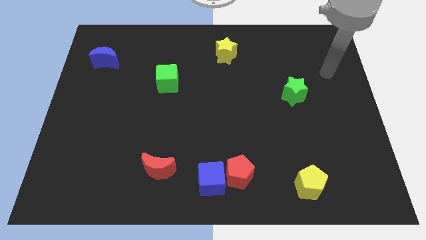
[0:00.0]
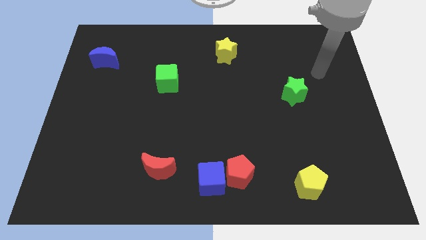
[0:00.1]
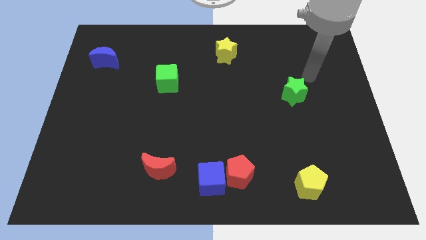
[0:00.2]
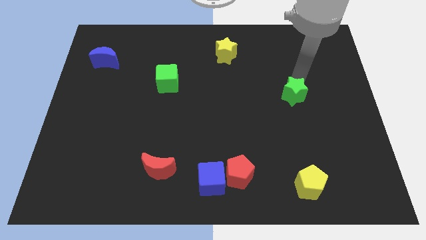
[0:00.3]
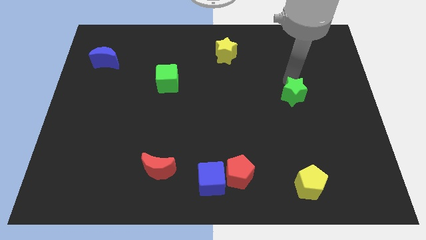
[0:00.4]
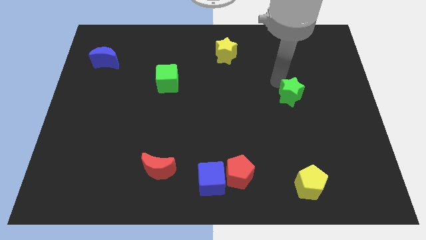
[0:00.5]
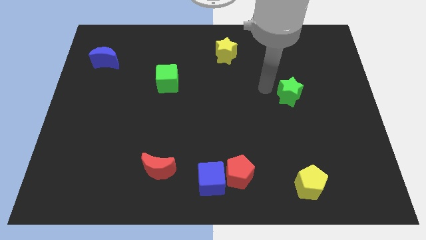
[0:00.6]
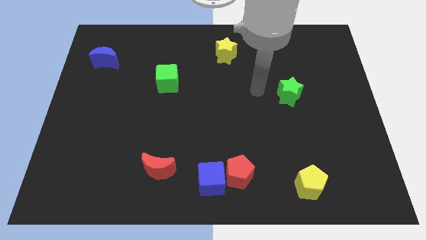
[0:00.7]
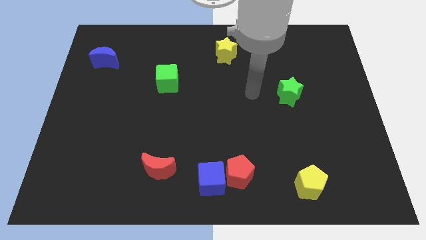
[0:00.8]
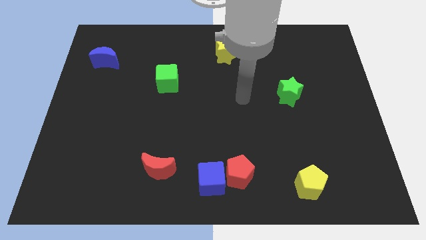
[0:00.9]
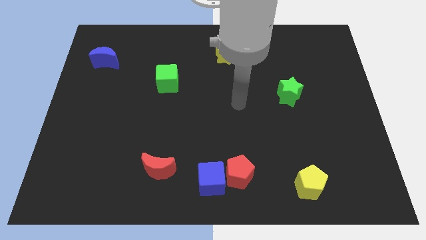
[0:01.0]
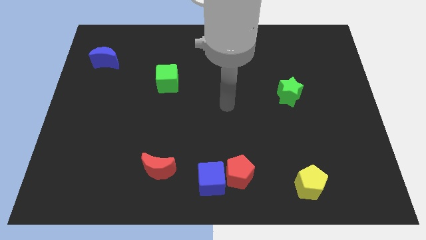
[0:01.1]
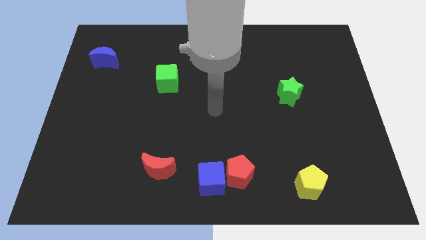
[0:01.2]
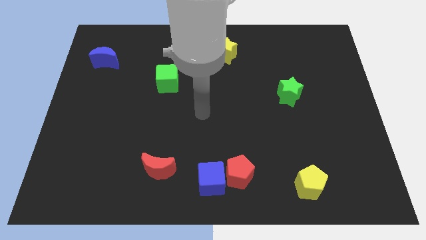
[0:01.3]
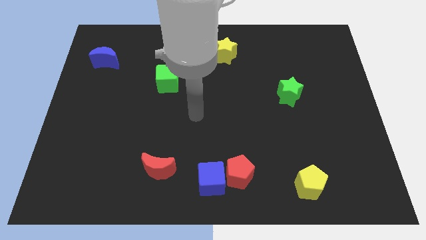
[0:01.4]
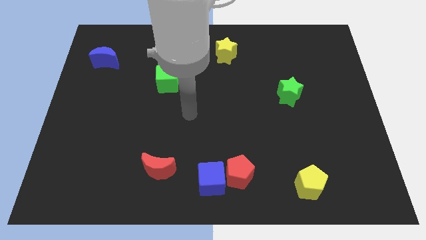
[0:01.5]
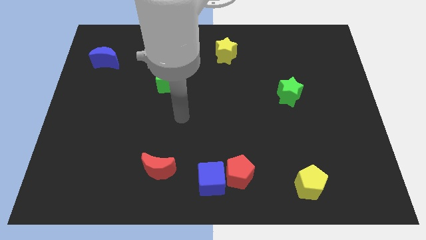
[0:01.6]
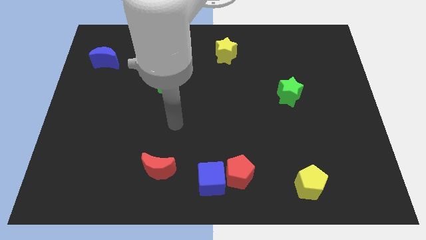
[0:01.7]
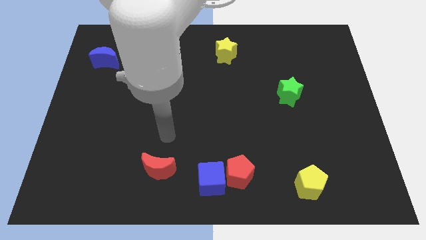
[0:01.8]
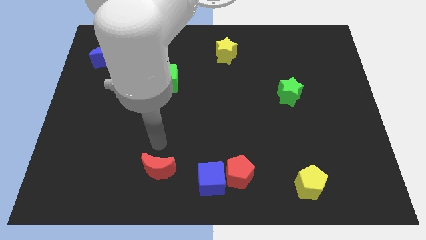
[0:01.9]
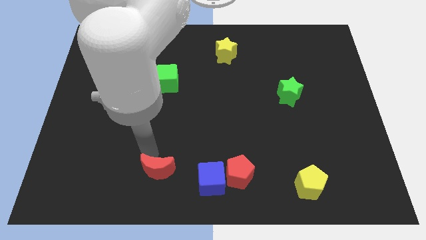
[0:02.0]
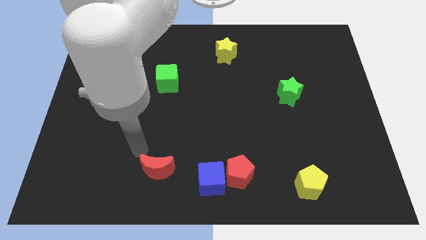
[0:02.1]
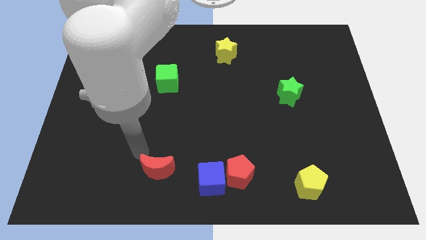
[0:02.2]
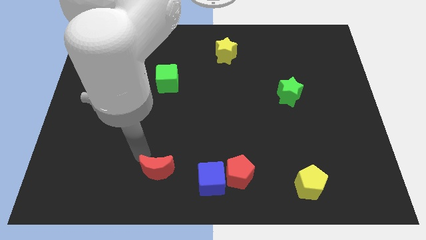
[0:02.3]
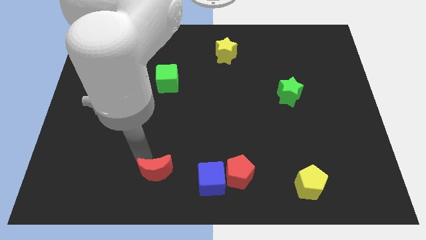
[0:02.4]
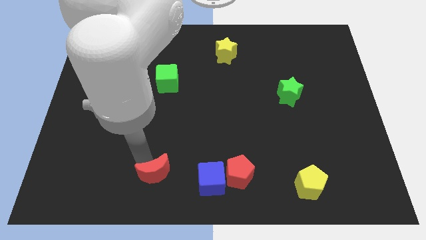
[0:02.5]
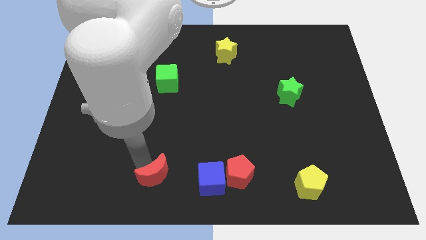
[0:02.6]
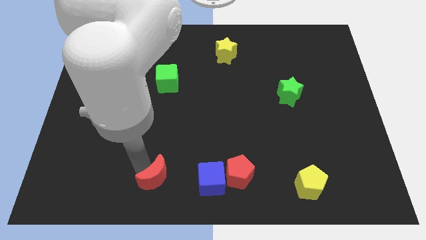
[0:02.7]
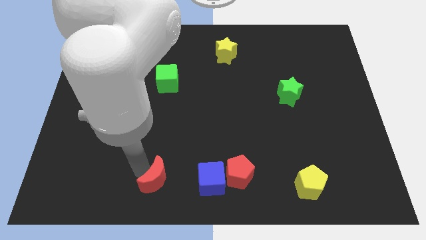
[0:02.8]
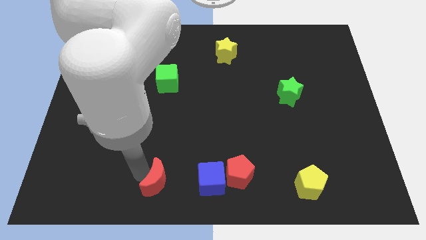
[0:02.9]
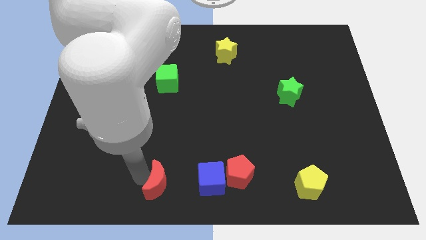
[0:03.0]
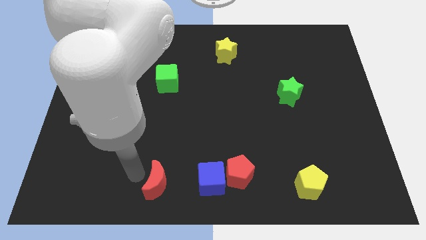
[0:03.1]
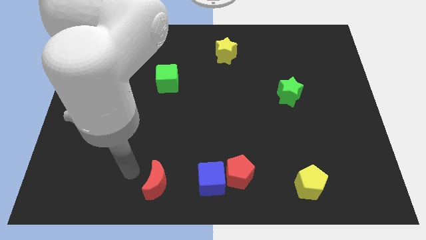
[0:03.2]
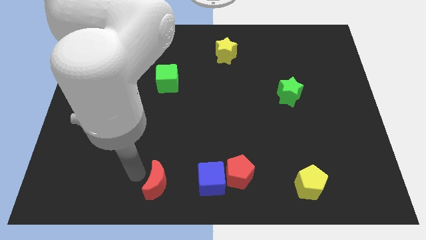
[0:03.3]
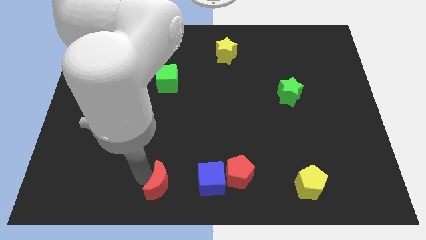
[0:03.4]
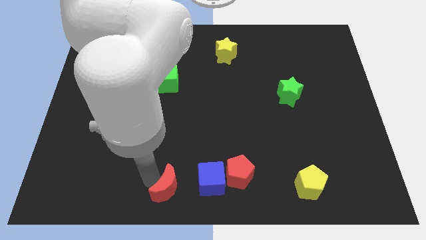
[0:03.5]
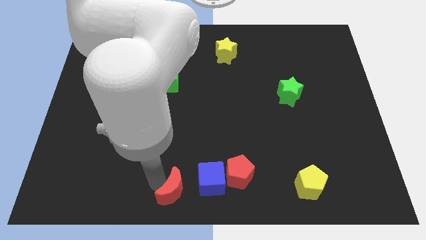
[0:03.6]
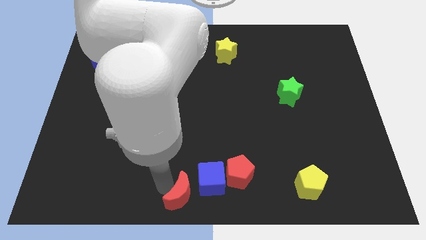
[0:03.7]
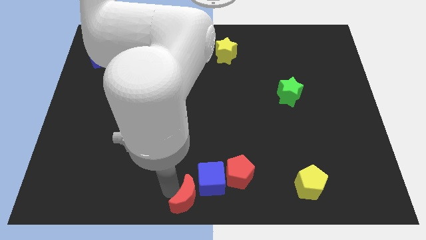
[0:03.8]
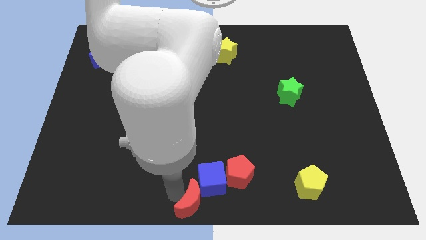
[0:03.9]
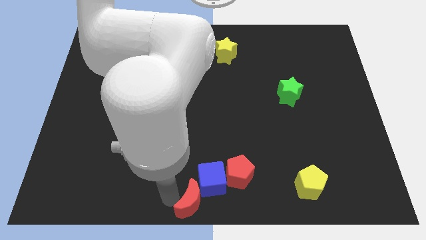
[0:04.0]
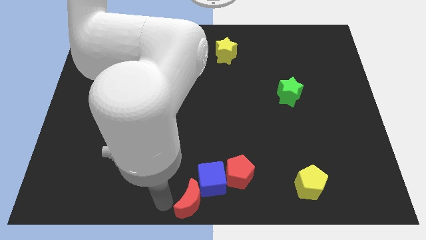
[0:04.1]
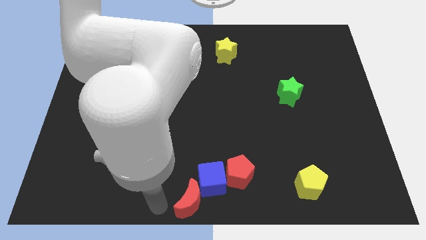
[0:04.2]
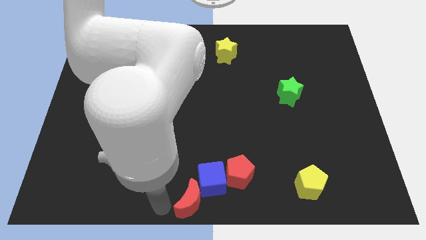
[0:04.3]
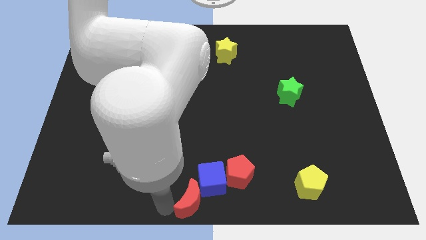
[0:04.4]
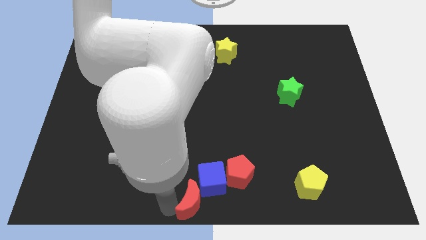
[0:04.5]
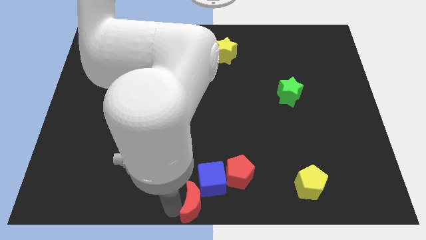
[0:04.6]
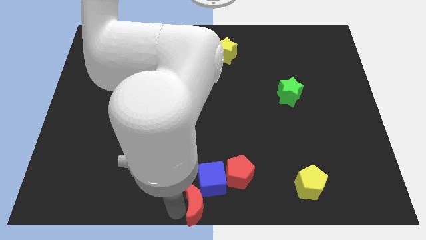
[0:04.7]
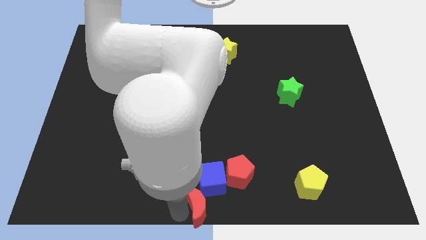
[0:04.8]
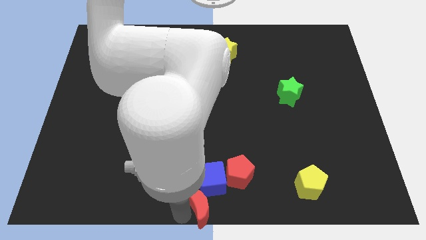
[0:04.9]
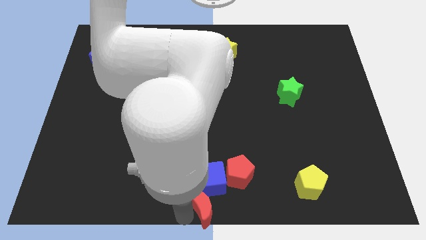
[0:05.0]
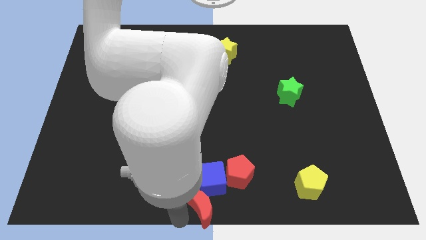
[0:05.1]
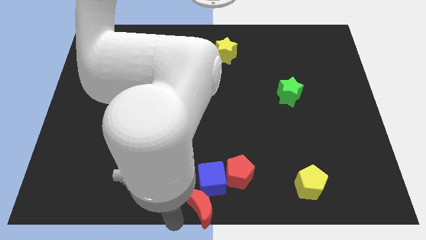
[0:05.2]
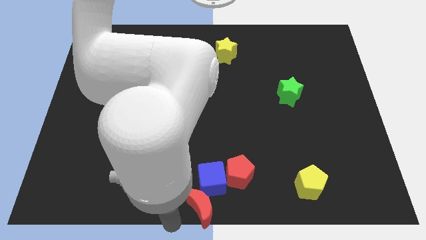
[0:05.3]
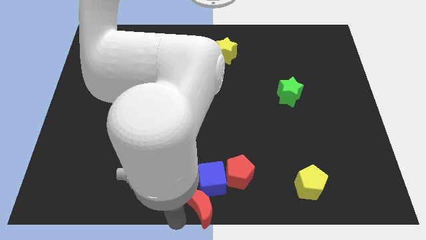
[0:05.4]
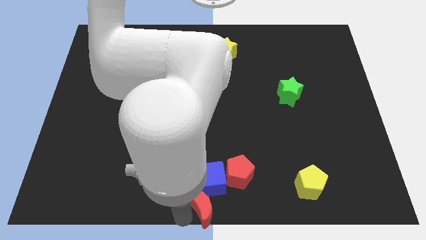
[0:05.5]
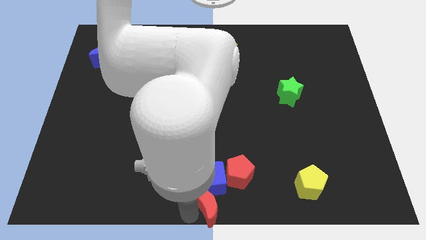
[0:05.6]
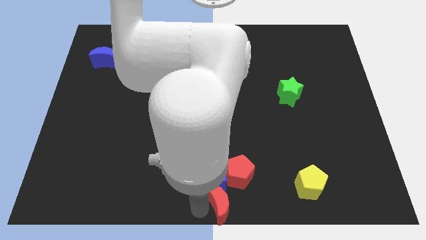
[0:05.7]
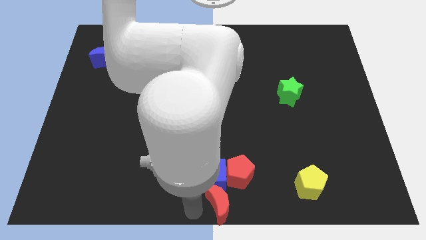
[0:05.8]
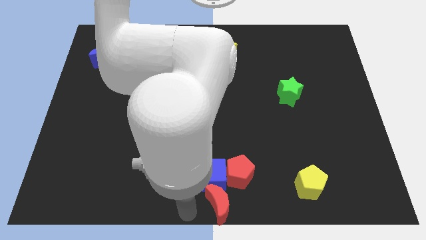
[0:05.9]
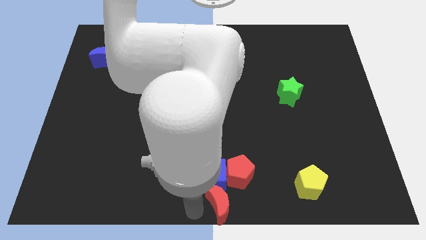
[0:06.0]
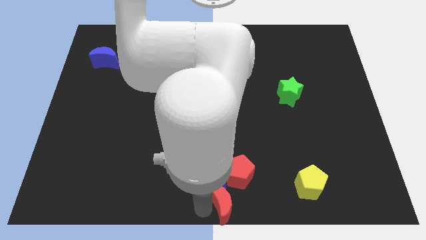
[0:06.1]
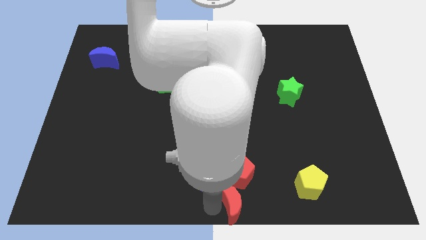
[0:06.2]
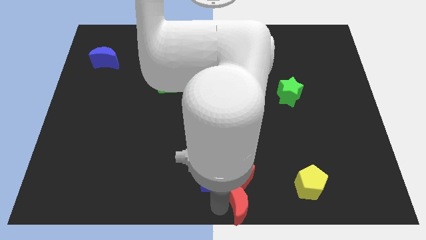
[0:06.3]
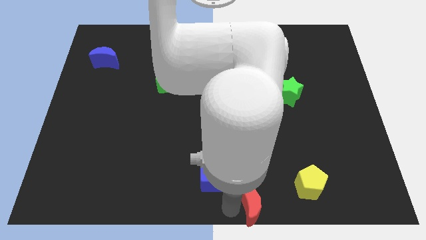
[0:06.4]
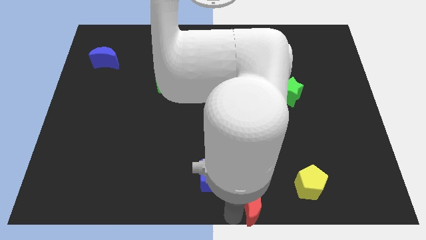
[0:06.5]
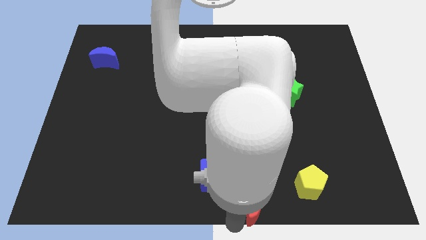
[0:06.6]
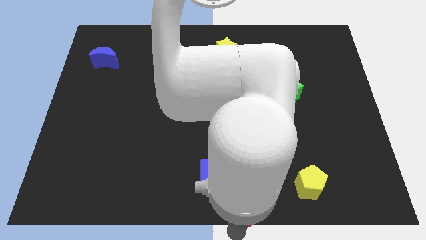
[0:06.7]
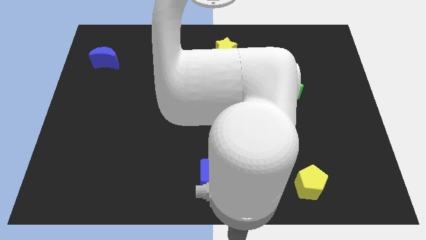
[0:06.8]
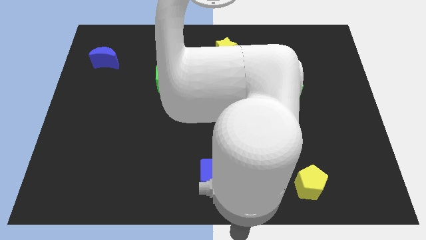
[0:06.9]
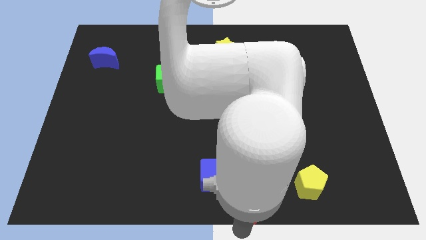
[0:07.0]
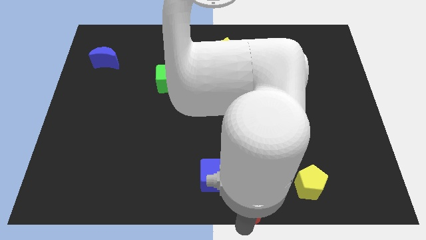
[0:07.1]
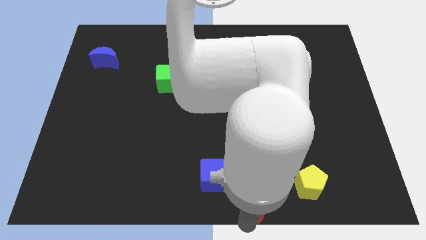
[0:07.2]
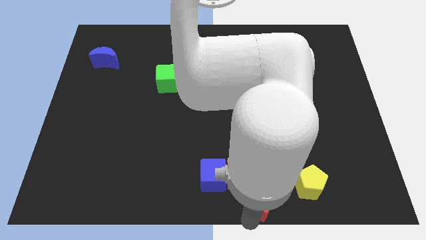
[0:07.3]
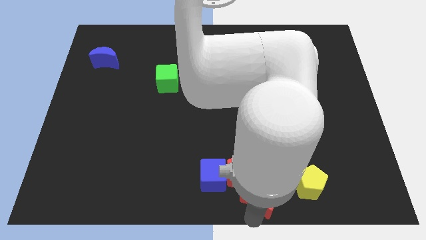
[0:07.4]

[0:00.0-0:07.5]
move the red moon to the right side of the blue cube
